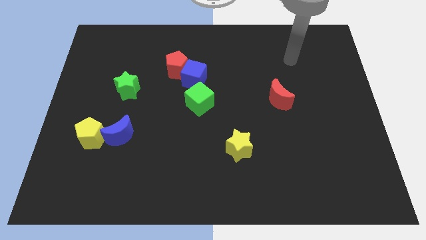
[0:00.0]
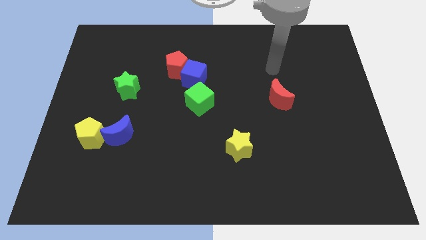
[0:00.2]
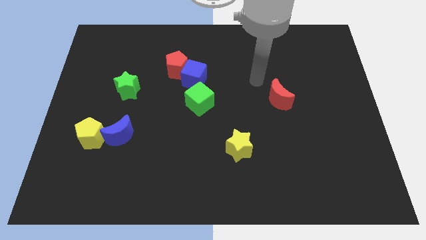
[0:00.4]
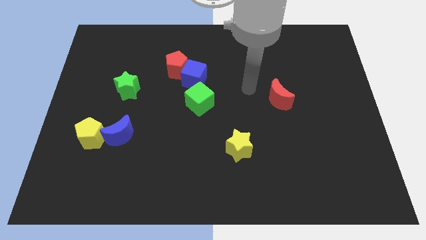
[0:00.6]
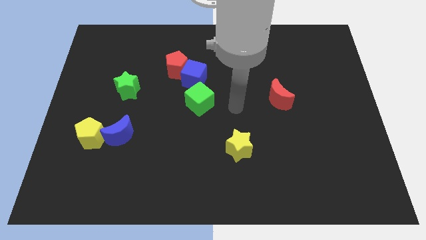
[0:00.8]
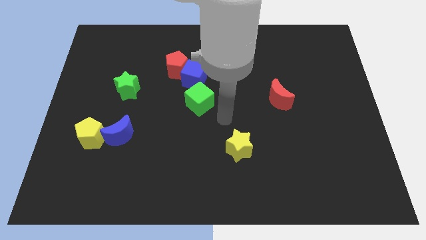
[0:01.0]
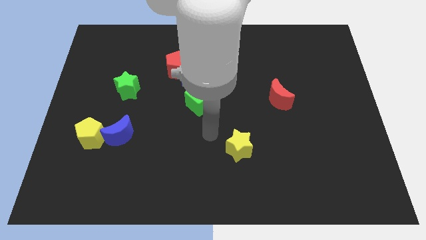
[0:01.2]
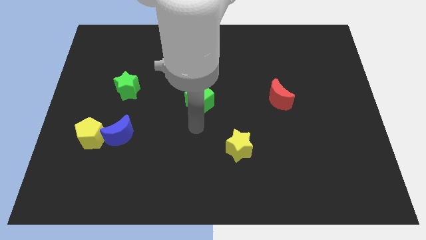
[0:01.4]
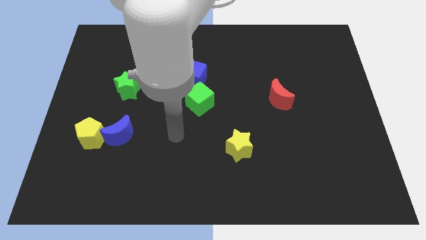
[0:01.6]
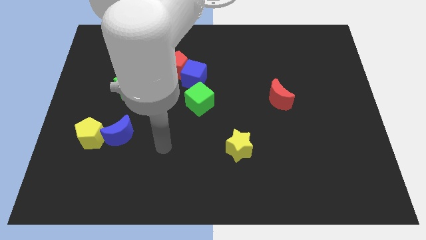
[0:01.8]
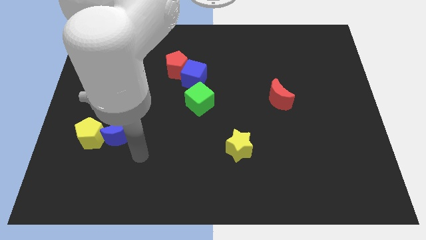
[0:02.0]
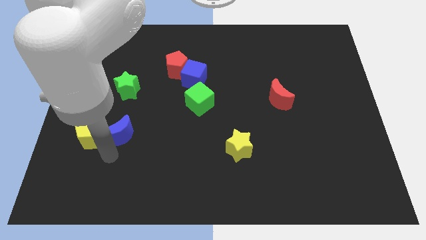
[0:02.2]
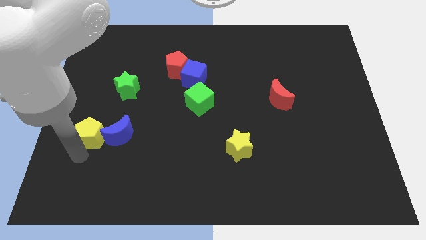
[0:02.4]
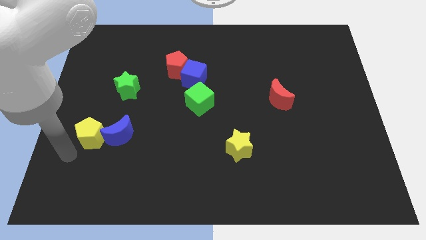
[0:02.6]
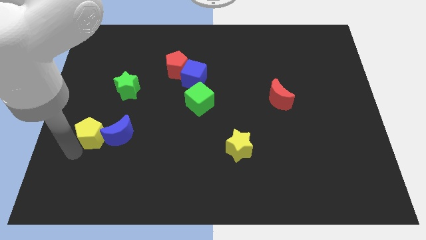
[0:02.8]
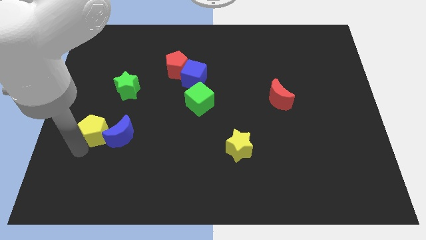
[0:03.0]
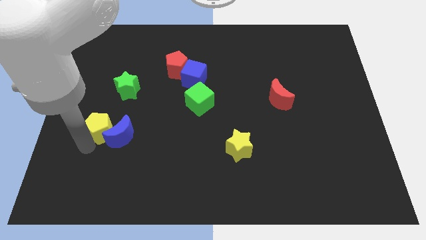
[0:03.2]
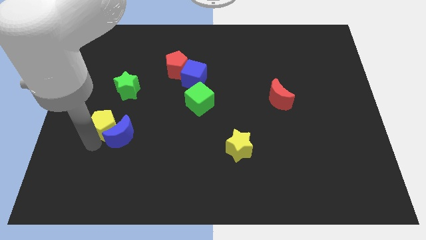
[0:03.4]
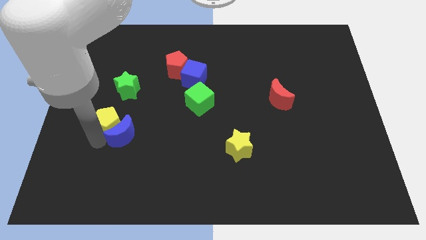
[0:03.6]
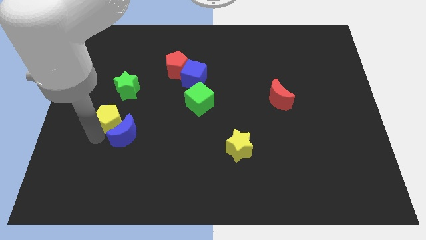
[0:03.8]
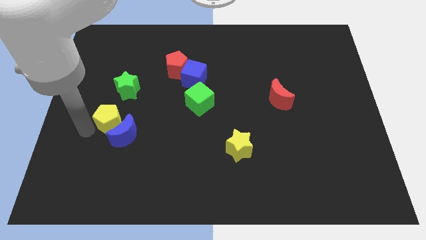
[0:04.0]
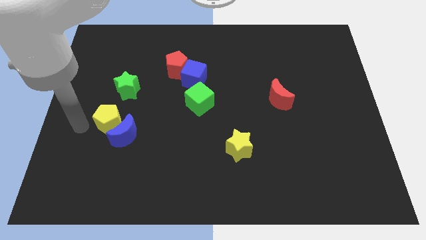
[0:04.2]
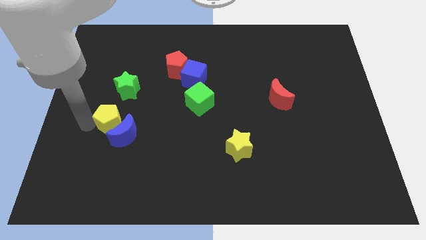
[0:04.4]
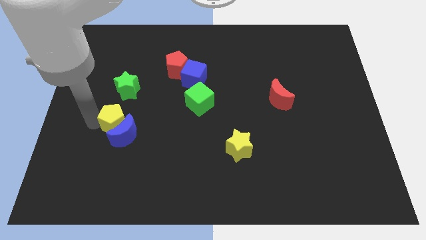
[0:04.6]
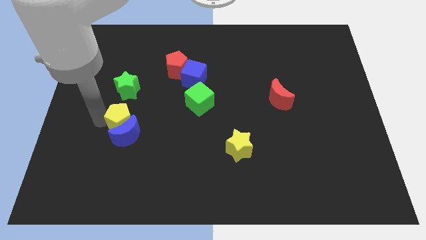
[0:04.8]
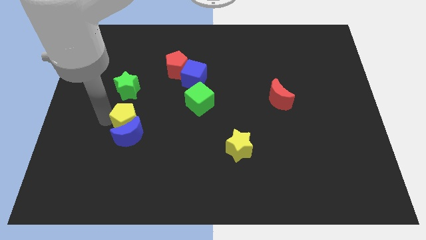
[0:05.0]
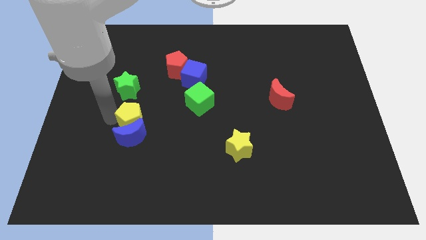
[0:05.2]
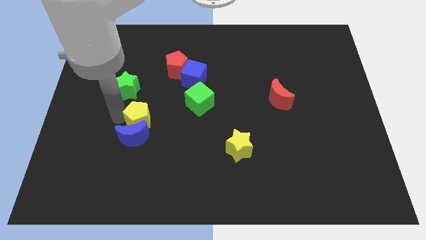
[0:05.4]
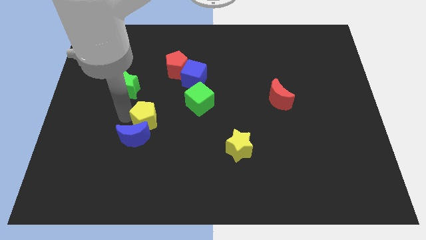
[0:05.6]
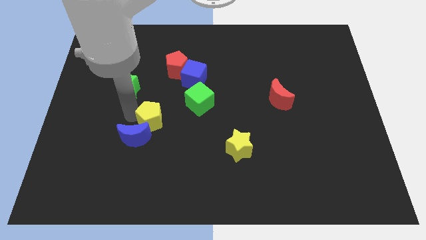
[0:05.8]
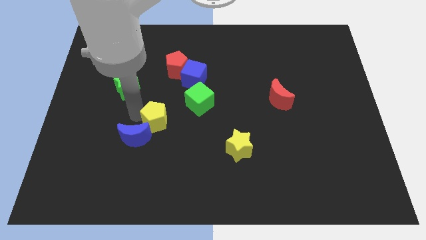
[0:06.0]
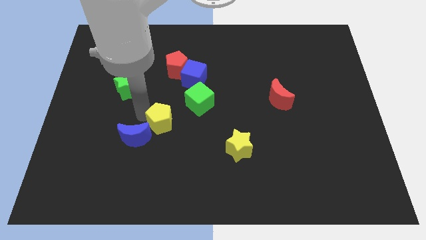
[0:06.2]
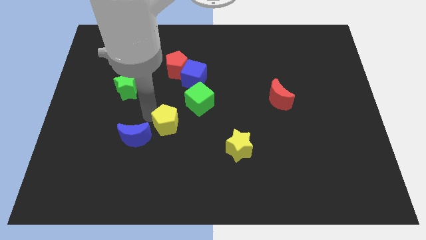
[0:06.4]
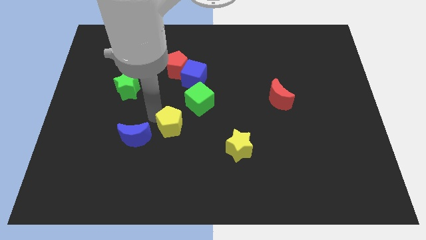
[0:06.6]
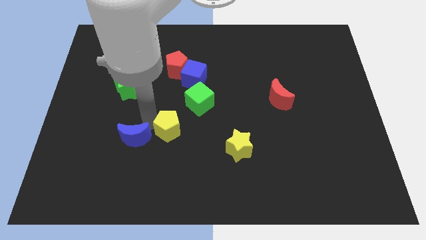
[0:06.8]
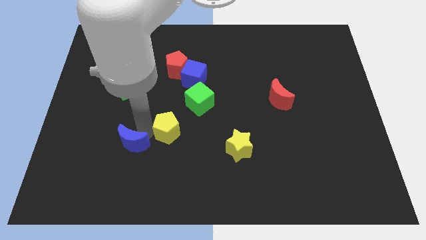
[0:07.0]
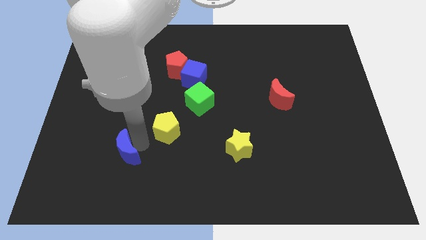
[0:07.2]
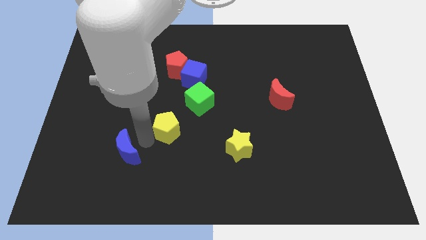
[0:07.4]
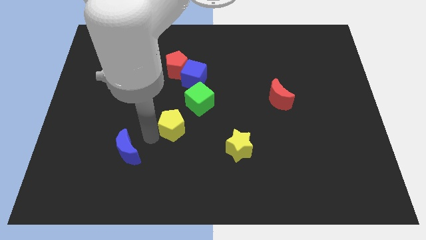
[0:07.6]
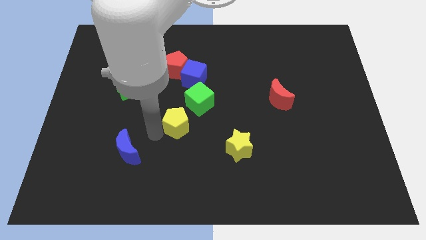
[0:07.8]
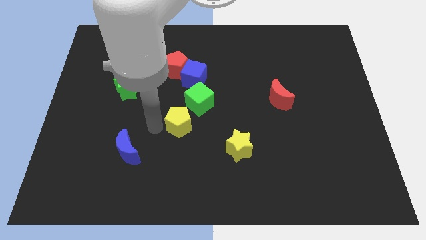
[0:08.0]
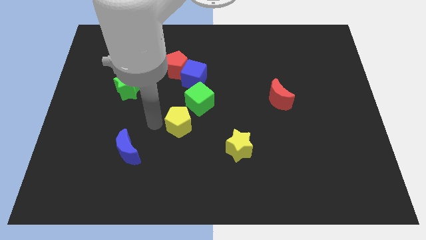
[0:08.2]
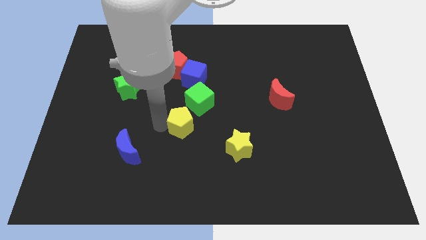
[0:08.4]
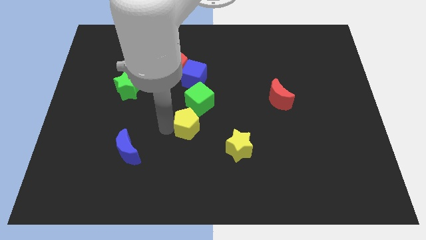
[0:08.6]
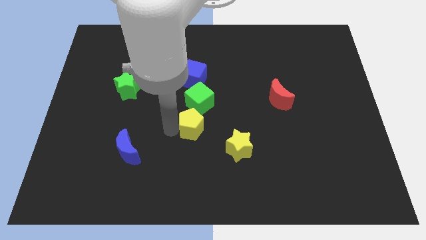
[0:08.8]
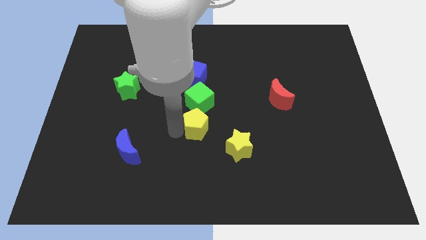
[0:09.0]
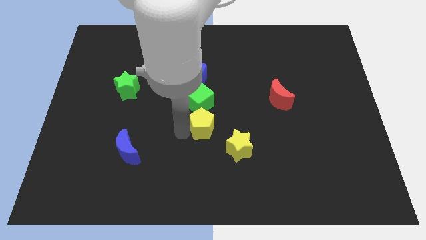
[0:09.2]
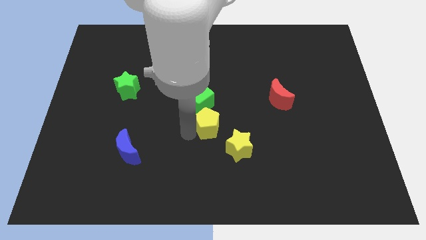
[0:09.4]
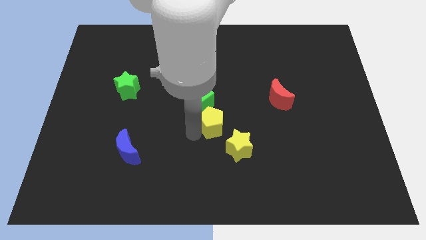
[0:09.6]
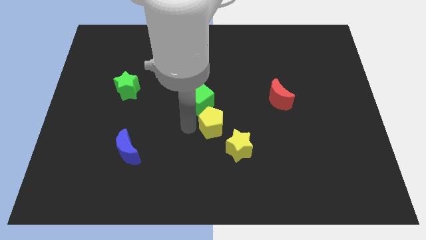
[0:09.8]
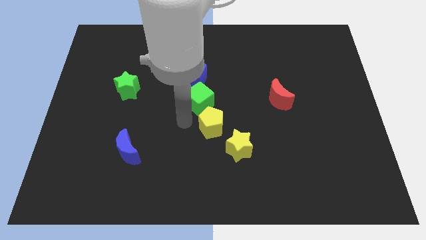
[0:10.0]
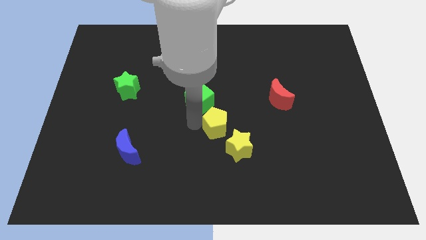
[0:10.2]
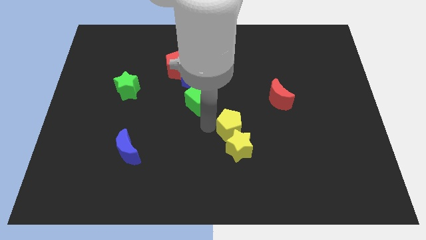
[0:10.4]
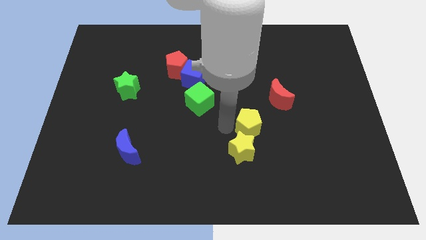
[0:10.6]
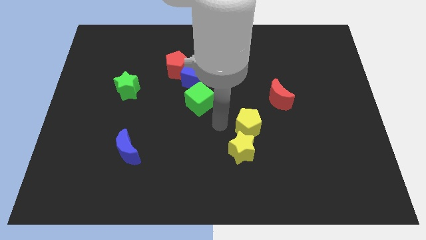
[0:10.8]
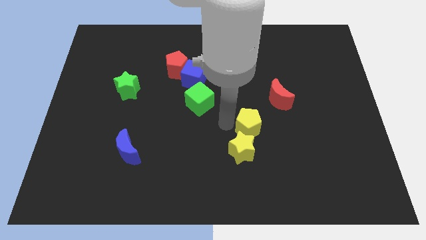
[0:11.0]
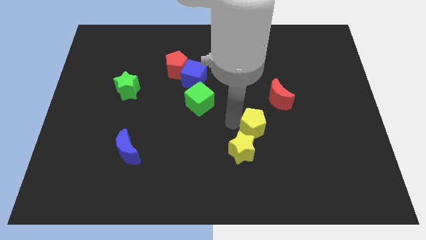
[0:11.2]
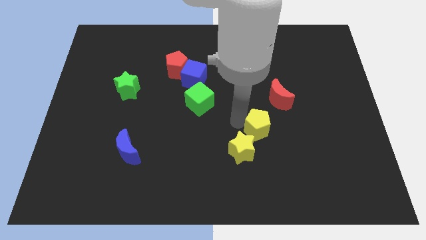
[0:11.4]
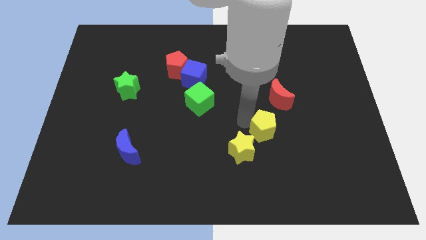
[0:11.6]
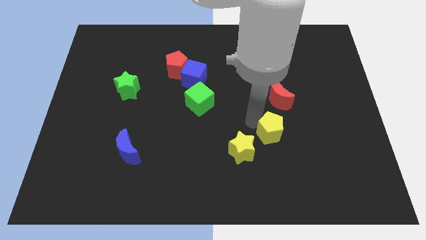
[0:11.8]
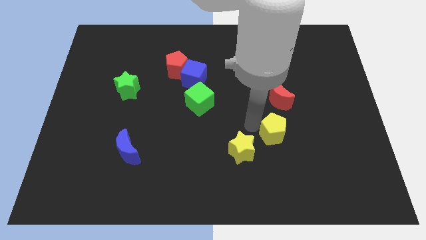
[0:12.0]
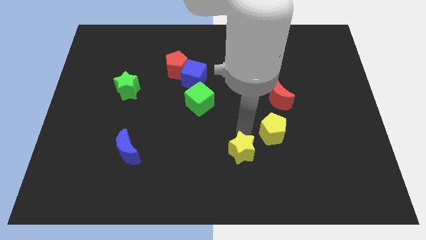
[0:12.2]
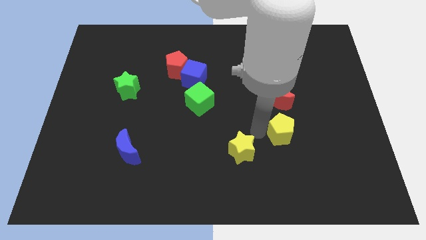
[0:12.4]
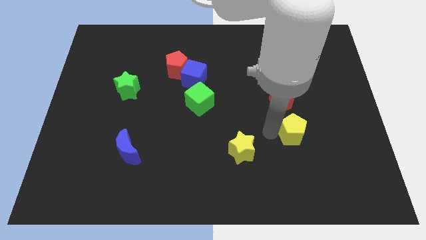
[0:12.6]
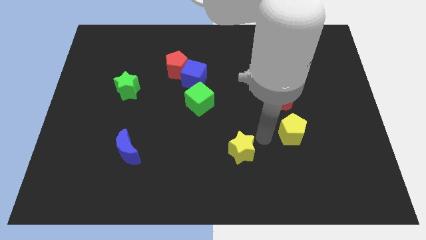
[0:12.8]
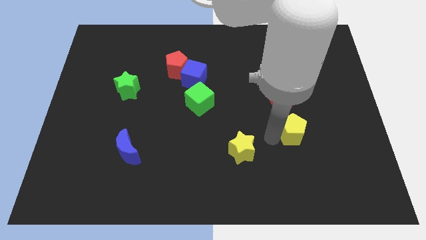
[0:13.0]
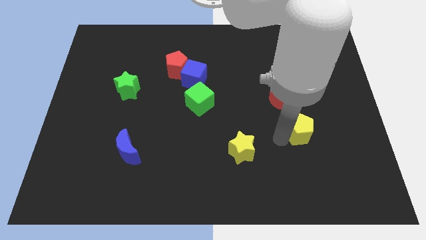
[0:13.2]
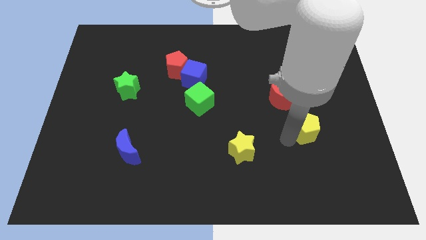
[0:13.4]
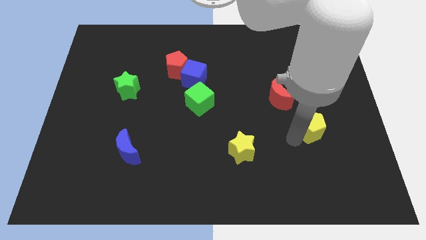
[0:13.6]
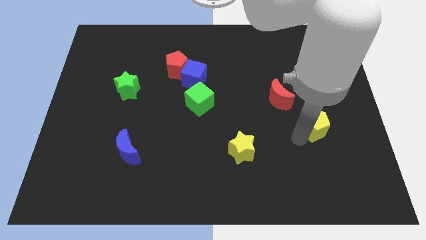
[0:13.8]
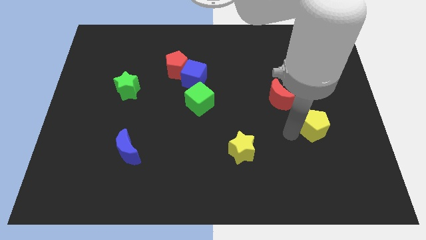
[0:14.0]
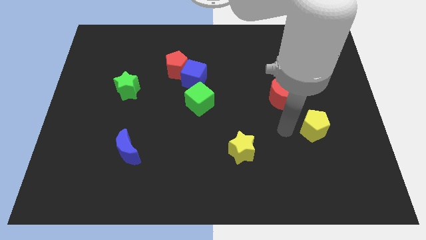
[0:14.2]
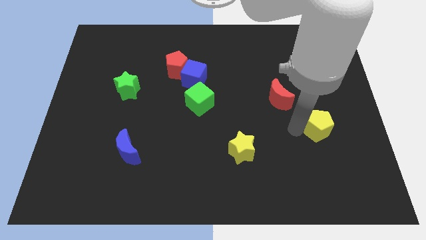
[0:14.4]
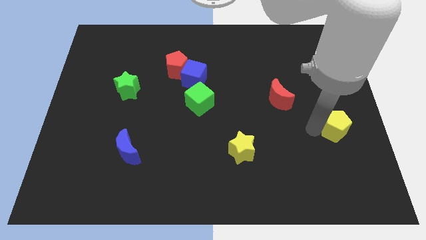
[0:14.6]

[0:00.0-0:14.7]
push the yellow pentagon to the center right
